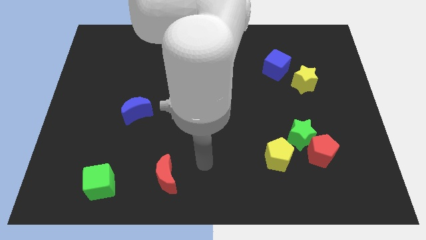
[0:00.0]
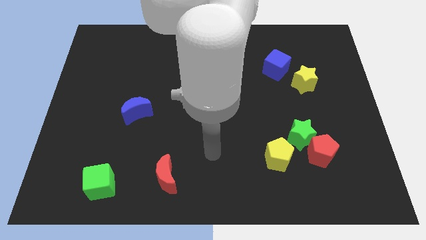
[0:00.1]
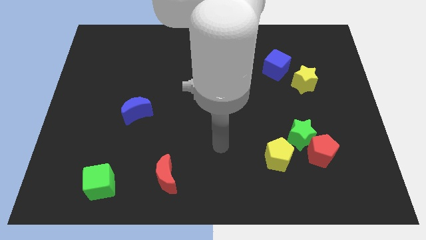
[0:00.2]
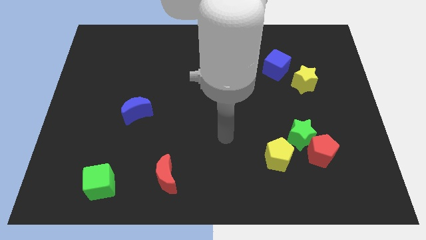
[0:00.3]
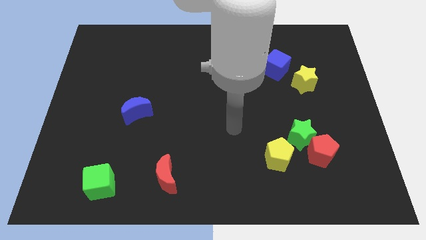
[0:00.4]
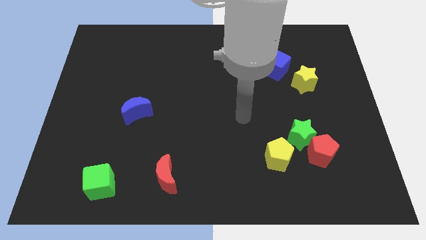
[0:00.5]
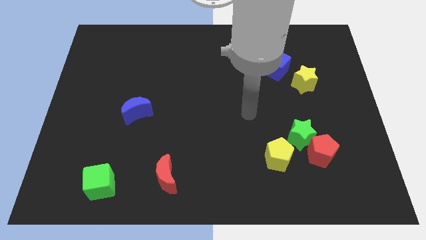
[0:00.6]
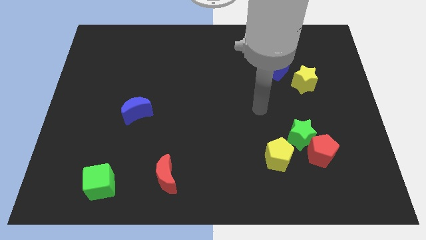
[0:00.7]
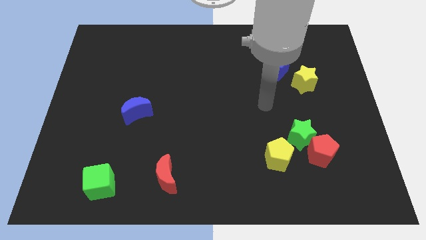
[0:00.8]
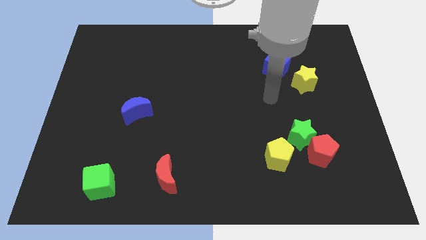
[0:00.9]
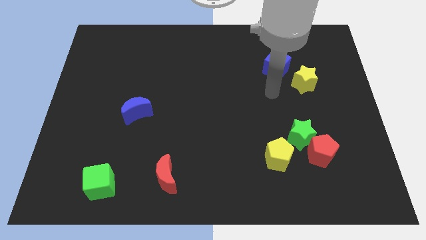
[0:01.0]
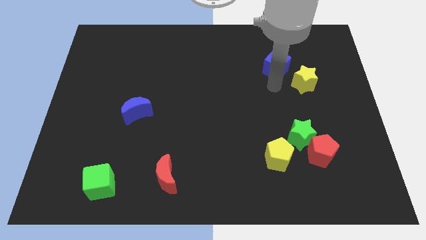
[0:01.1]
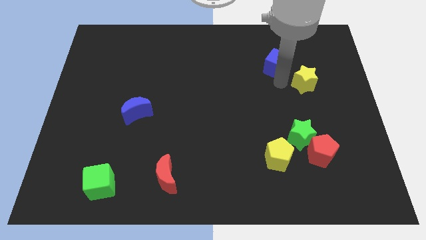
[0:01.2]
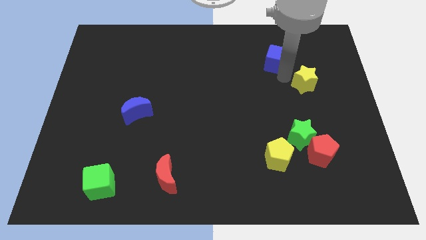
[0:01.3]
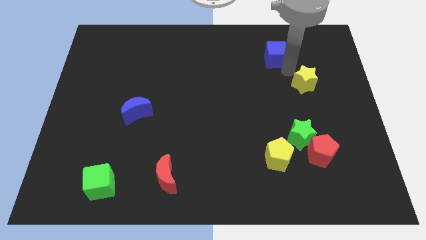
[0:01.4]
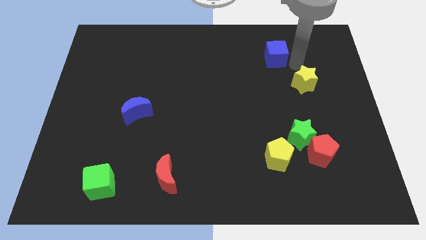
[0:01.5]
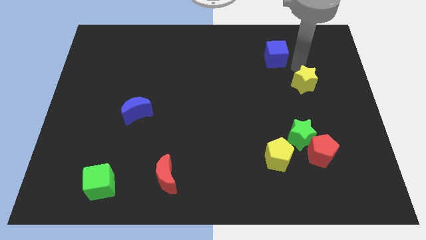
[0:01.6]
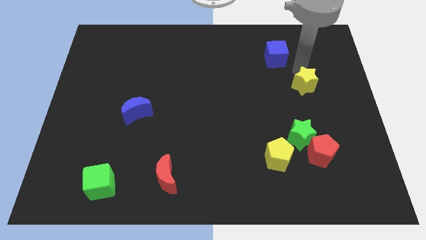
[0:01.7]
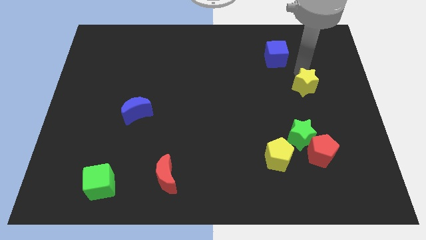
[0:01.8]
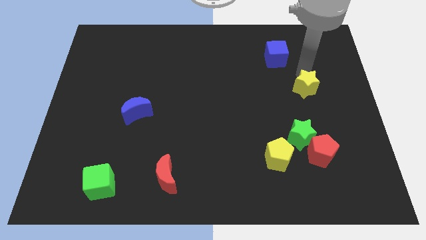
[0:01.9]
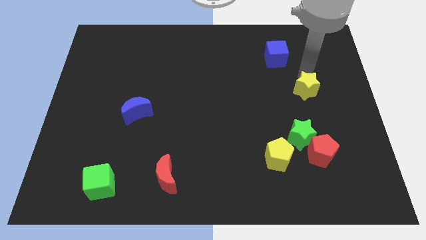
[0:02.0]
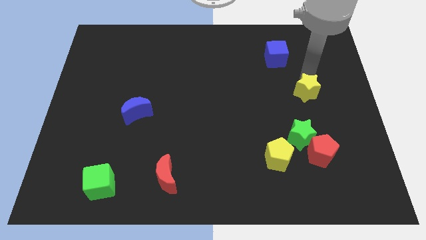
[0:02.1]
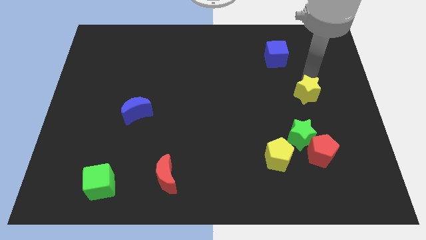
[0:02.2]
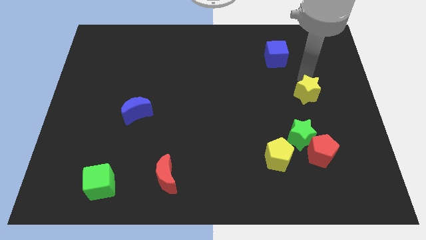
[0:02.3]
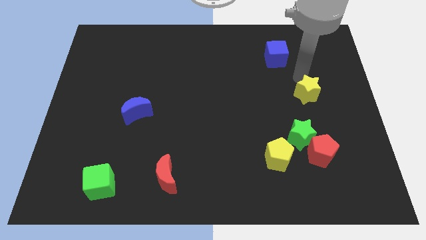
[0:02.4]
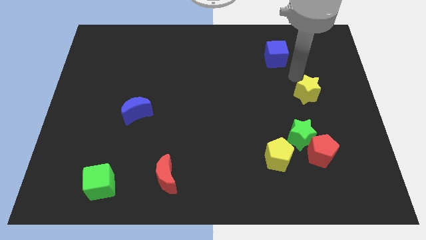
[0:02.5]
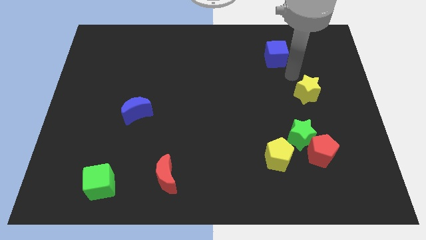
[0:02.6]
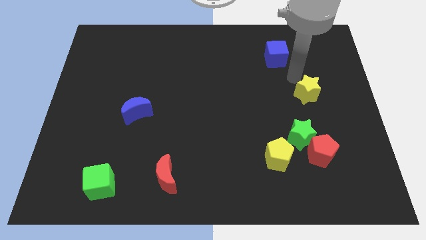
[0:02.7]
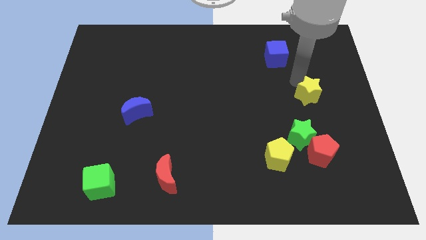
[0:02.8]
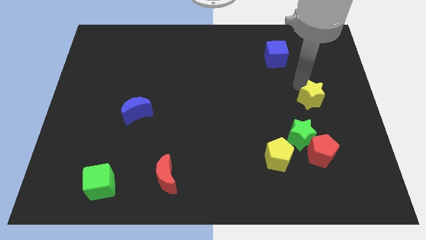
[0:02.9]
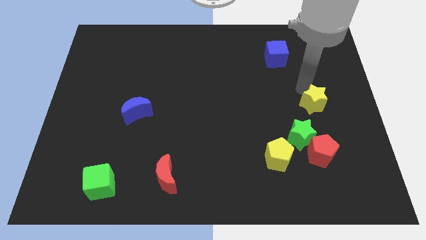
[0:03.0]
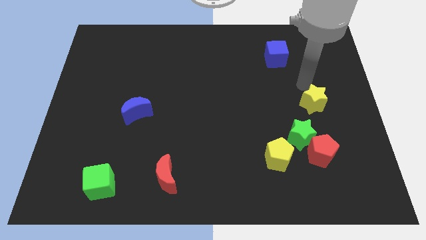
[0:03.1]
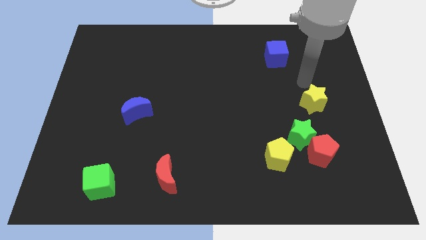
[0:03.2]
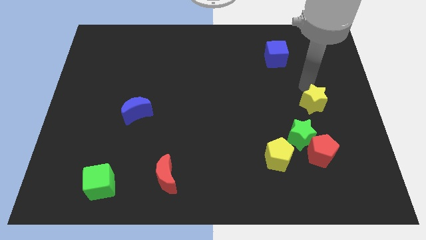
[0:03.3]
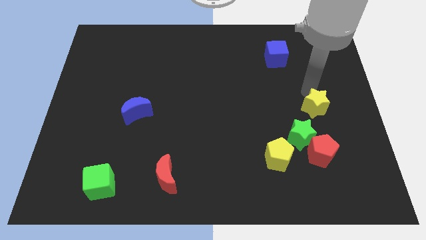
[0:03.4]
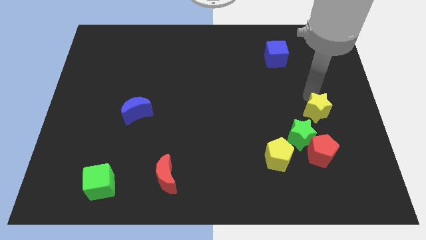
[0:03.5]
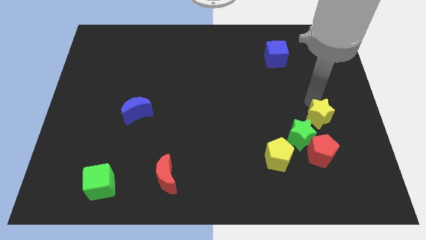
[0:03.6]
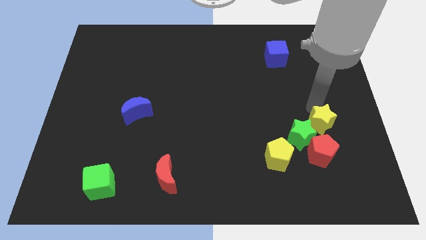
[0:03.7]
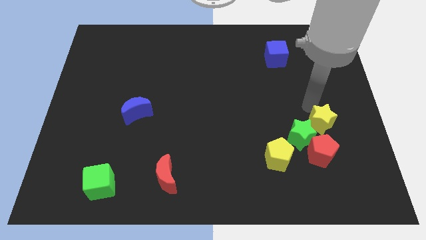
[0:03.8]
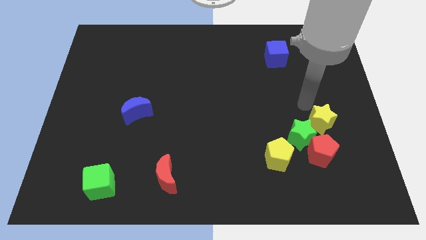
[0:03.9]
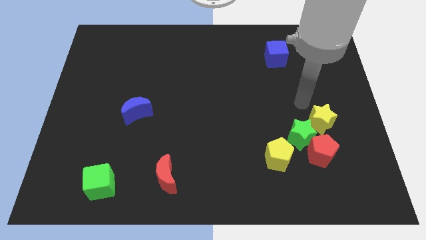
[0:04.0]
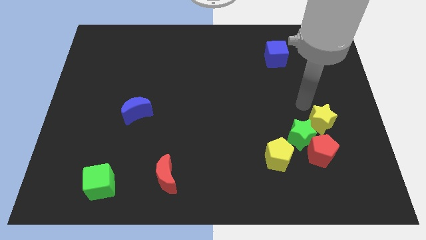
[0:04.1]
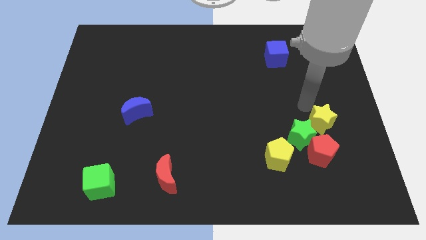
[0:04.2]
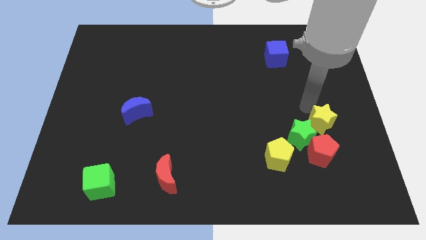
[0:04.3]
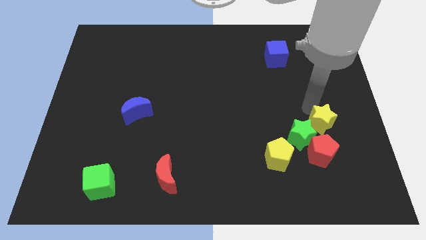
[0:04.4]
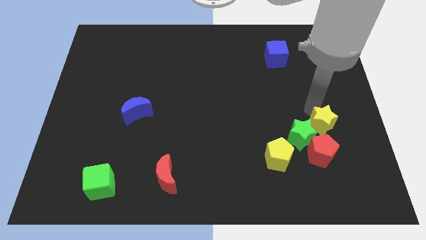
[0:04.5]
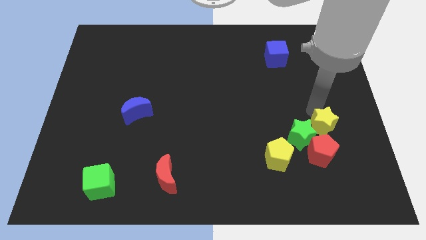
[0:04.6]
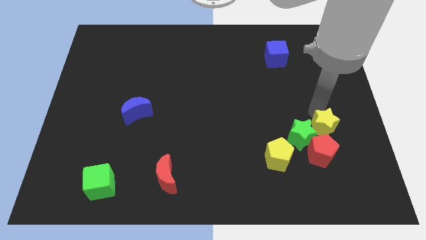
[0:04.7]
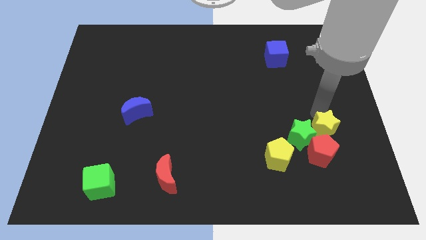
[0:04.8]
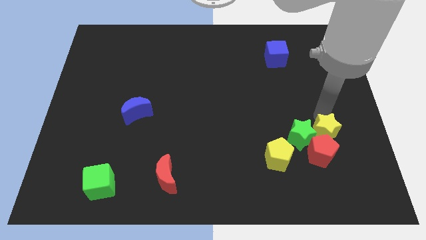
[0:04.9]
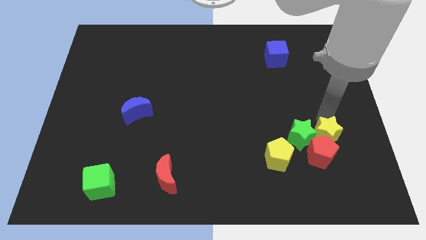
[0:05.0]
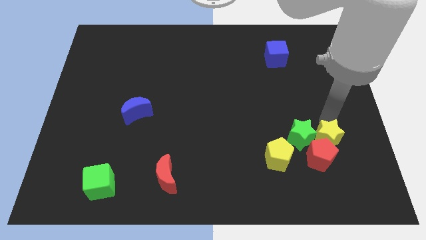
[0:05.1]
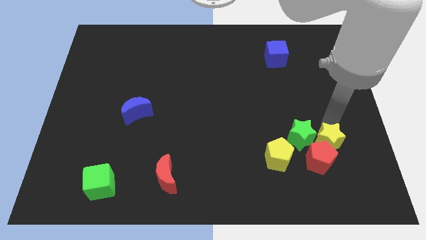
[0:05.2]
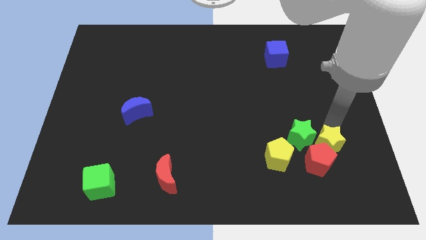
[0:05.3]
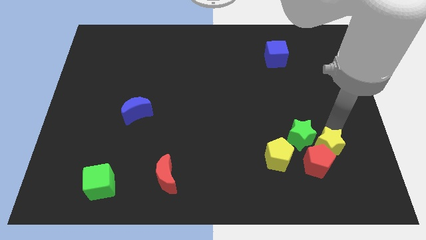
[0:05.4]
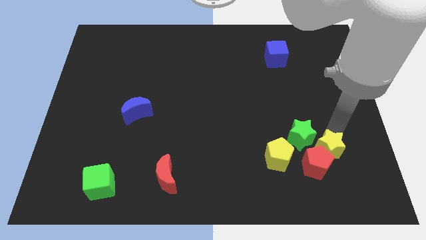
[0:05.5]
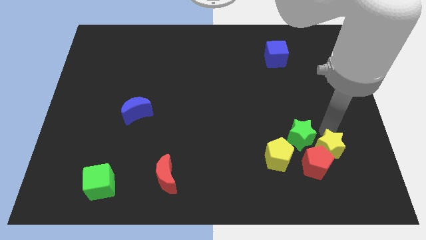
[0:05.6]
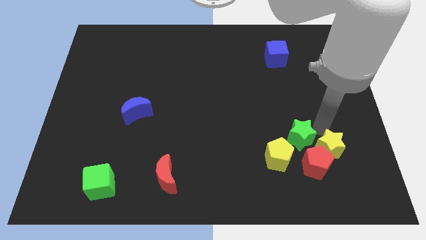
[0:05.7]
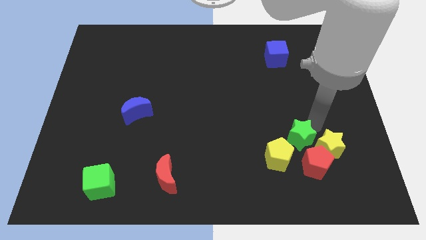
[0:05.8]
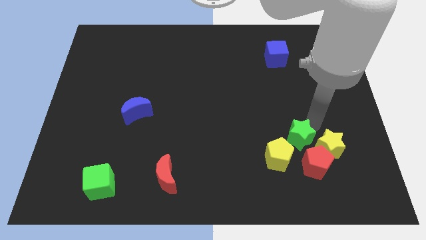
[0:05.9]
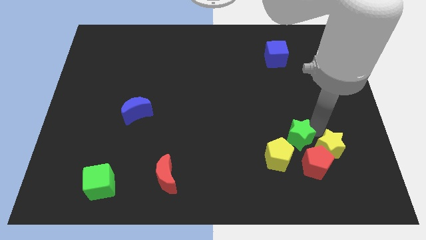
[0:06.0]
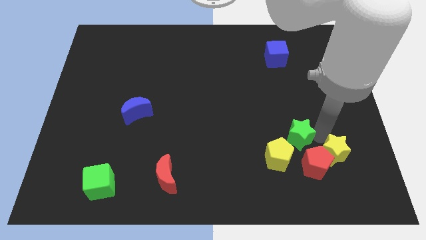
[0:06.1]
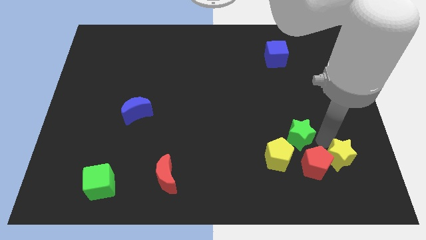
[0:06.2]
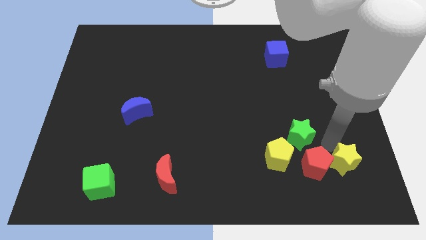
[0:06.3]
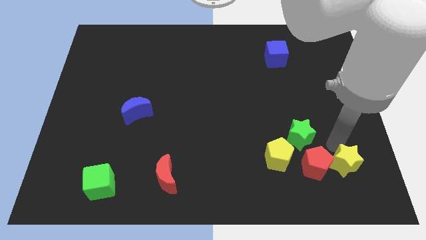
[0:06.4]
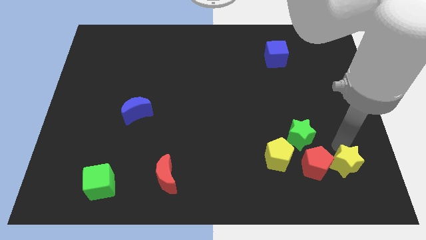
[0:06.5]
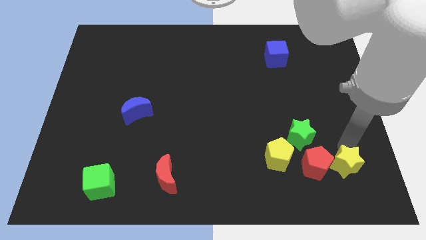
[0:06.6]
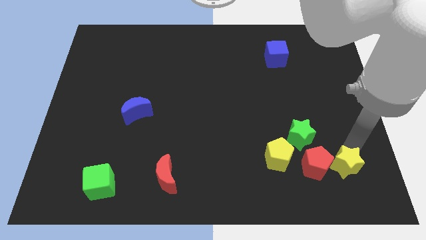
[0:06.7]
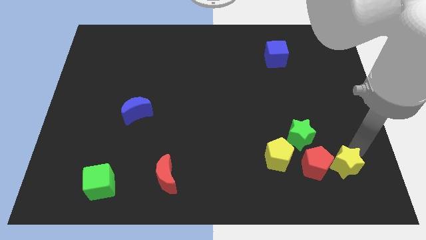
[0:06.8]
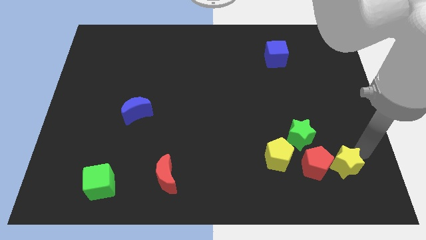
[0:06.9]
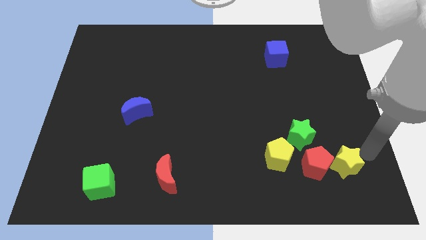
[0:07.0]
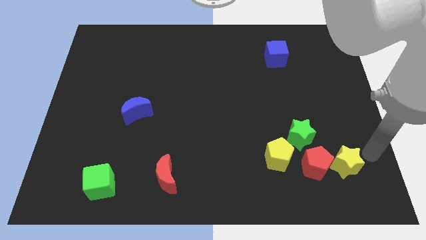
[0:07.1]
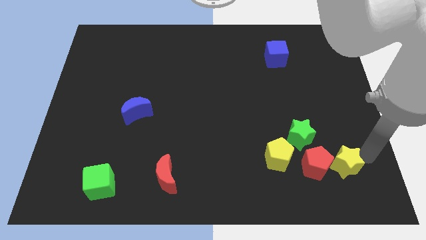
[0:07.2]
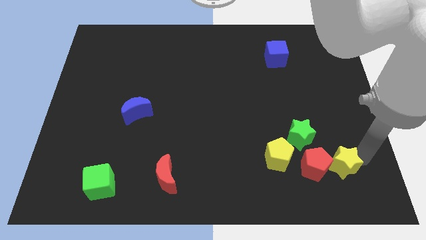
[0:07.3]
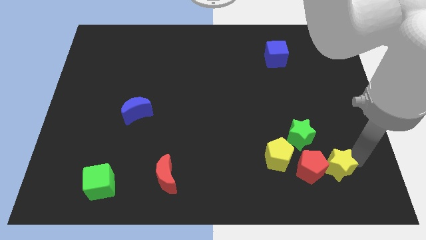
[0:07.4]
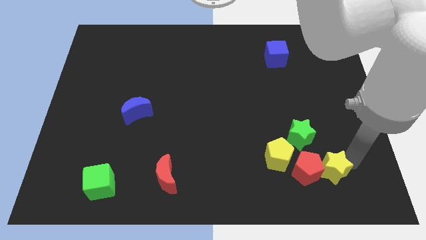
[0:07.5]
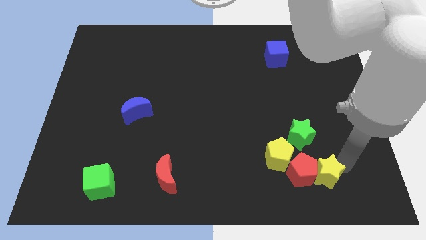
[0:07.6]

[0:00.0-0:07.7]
move the yellow star to the bottom right side of the yellow pentagon
